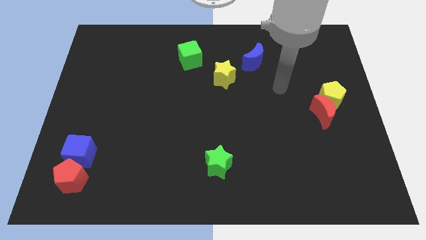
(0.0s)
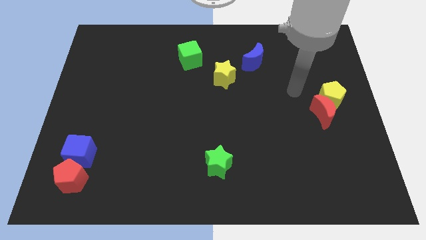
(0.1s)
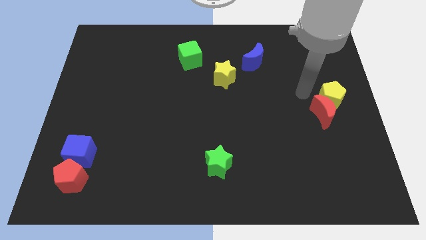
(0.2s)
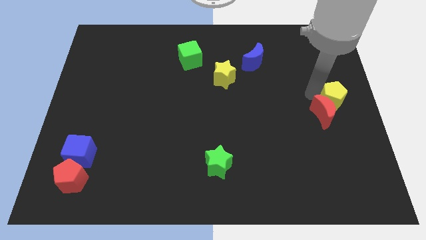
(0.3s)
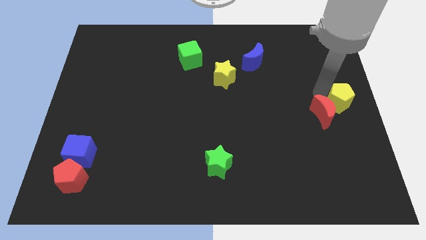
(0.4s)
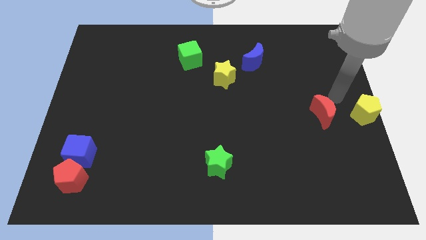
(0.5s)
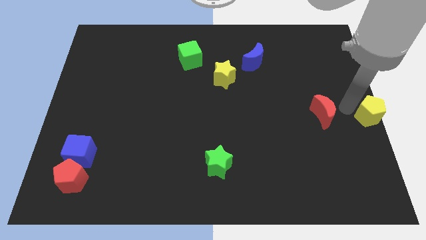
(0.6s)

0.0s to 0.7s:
pull the red moon apart from the yellow pentagon

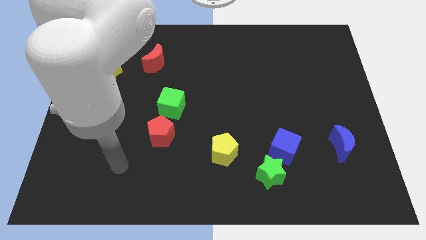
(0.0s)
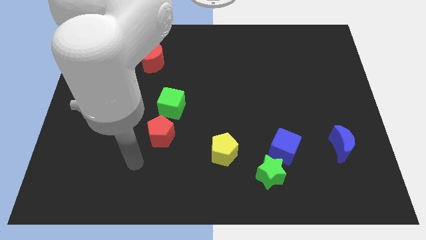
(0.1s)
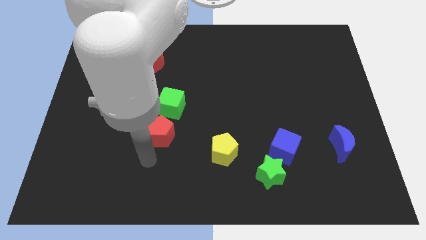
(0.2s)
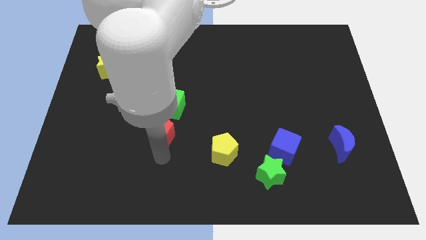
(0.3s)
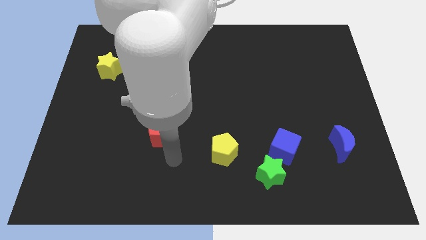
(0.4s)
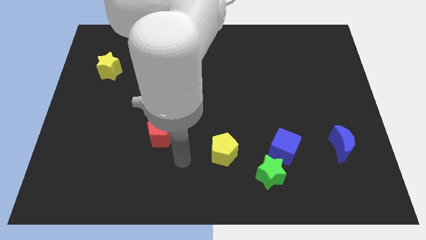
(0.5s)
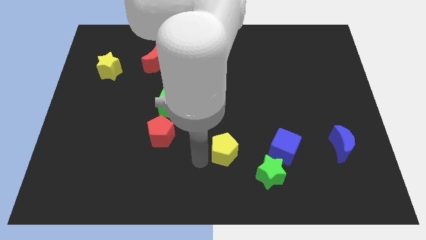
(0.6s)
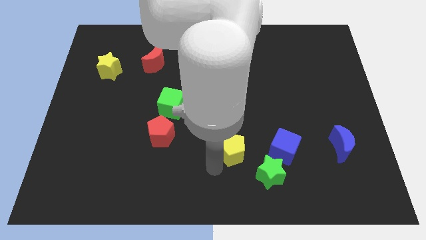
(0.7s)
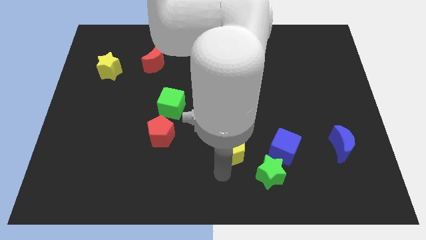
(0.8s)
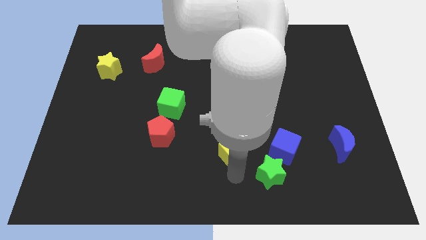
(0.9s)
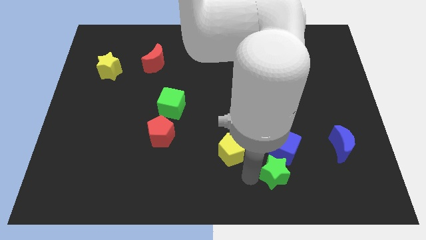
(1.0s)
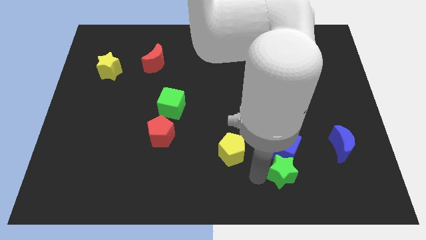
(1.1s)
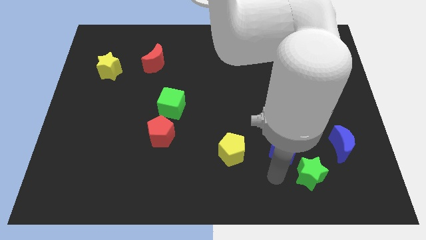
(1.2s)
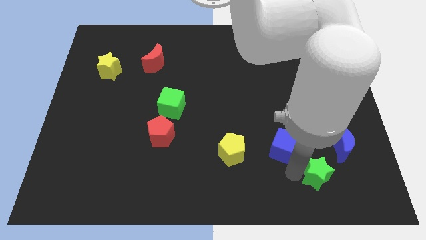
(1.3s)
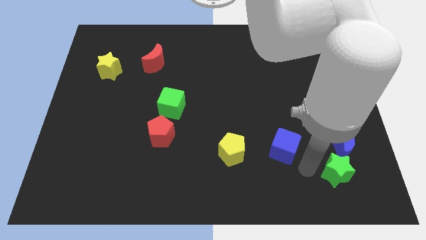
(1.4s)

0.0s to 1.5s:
move the blue cube away from the green star

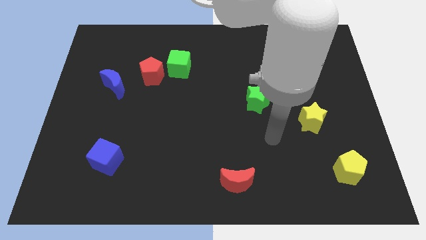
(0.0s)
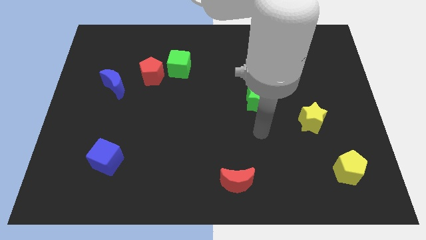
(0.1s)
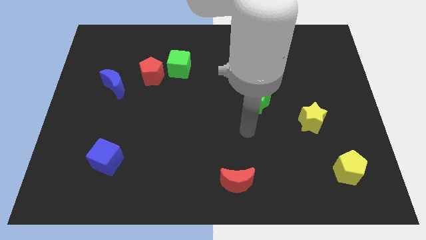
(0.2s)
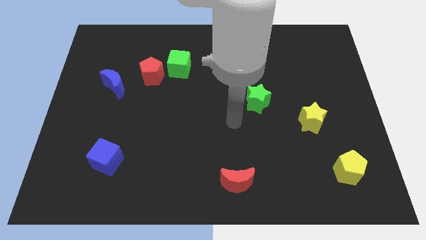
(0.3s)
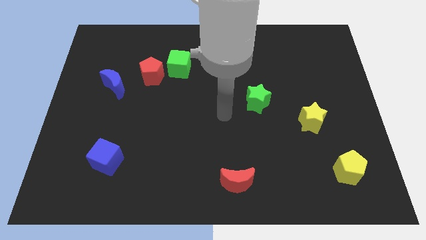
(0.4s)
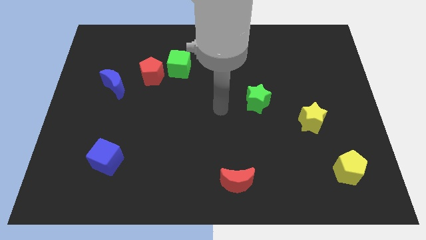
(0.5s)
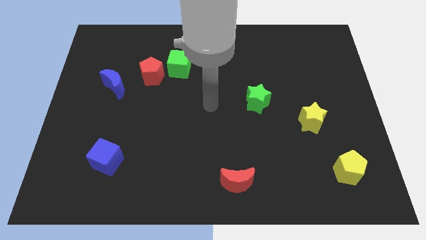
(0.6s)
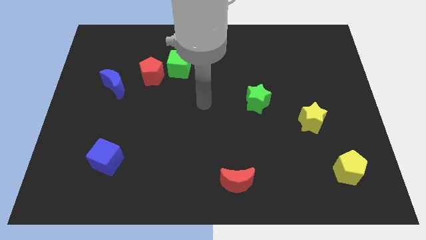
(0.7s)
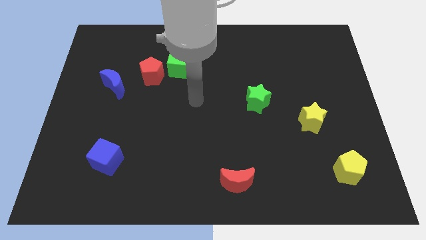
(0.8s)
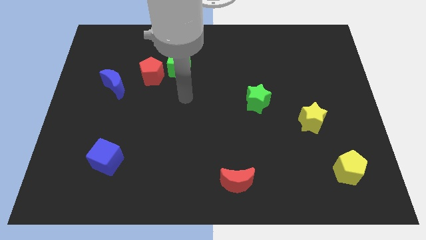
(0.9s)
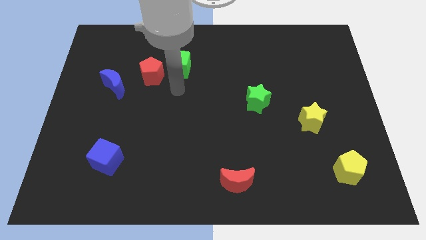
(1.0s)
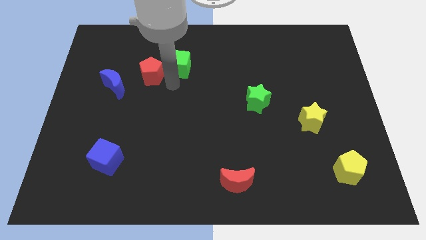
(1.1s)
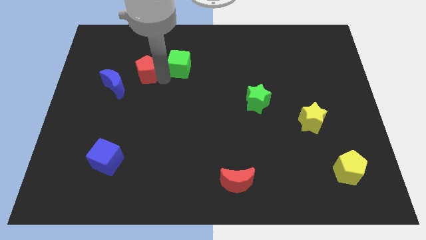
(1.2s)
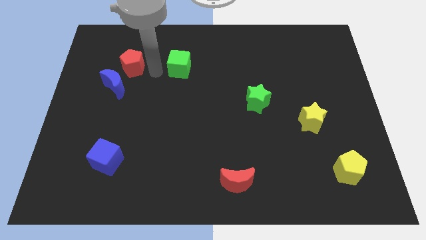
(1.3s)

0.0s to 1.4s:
pull the green cube apart from the red pentagon

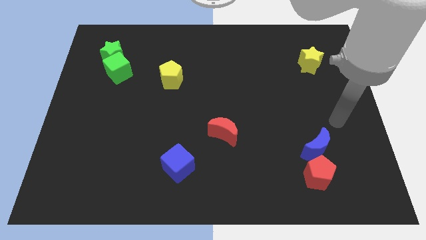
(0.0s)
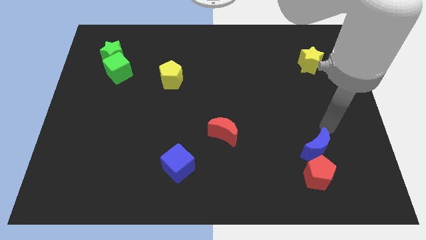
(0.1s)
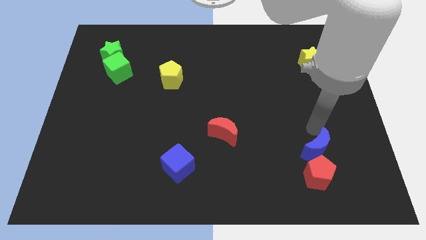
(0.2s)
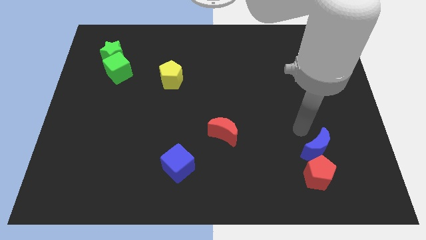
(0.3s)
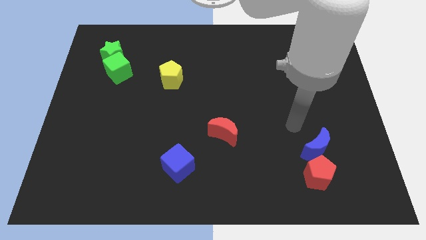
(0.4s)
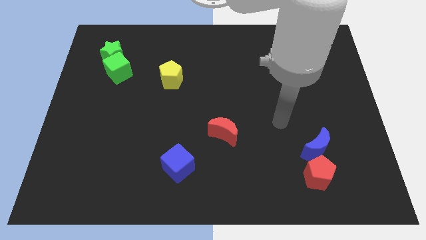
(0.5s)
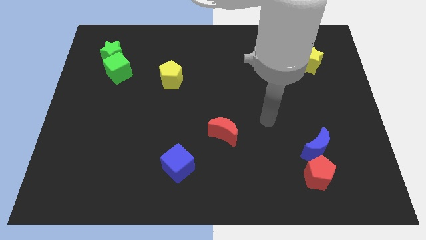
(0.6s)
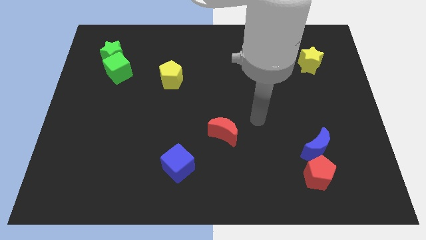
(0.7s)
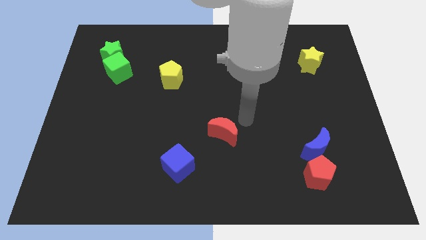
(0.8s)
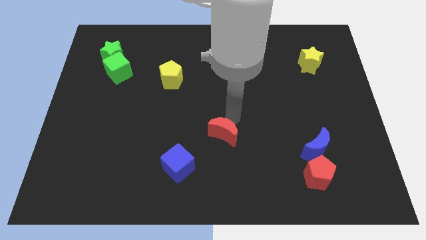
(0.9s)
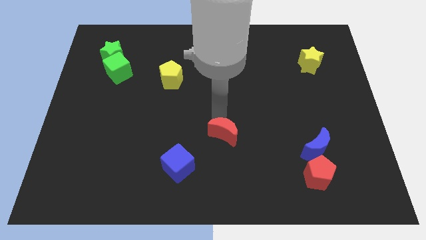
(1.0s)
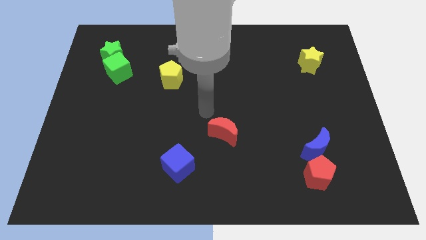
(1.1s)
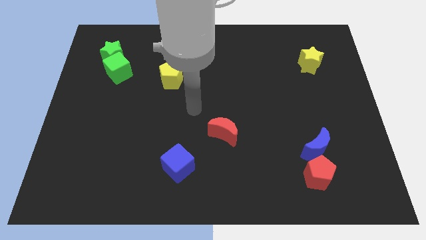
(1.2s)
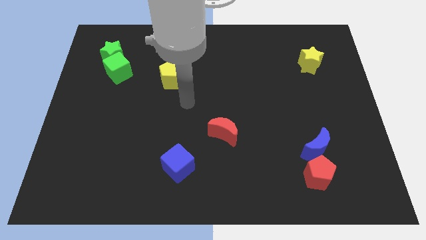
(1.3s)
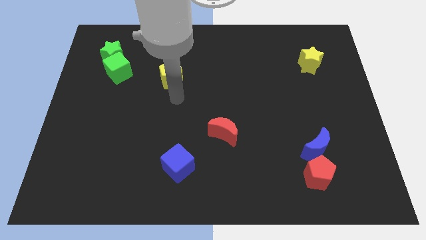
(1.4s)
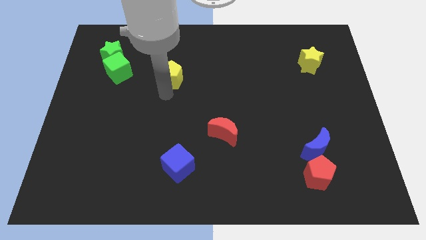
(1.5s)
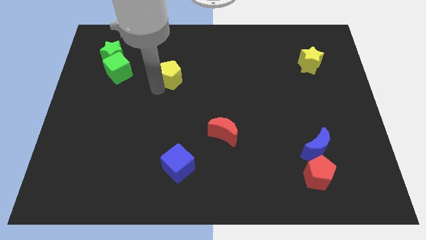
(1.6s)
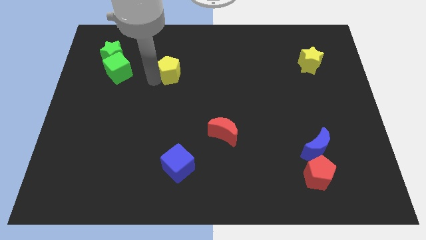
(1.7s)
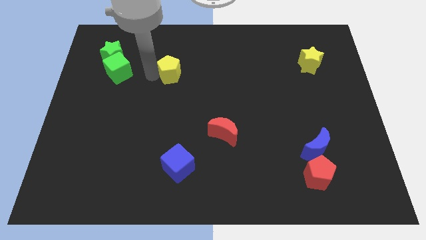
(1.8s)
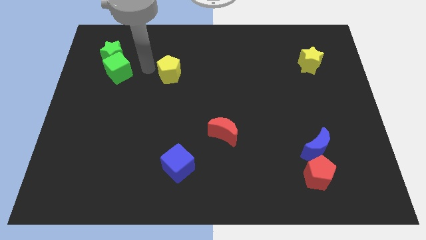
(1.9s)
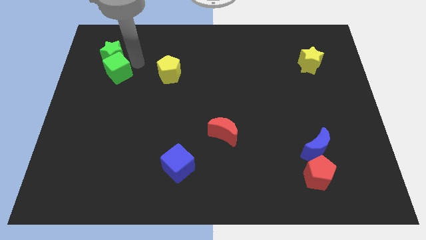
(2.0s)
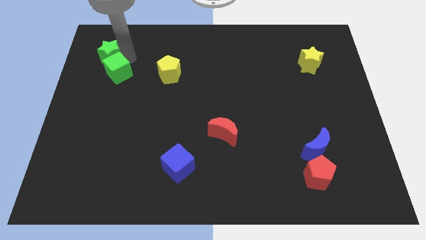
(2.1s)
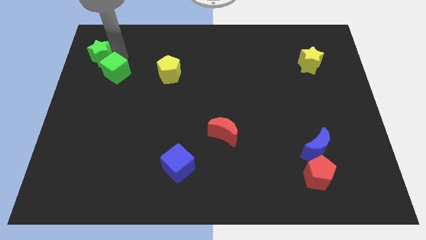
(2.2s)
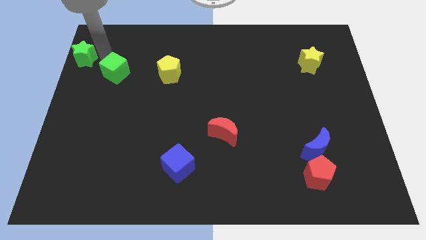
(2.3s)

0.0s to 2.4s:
separate the green cube from the green star

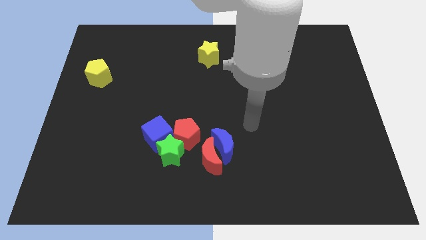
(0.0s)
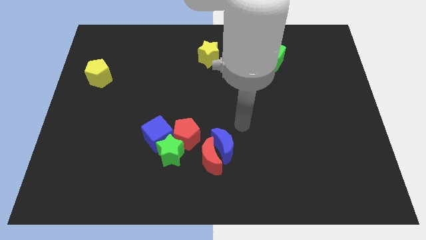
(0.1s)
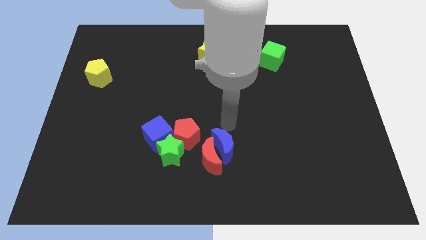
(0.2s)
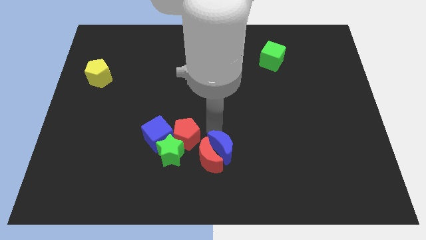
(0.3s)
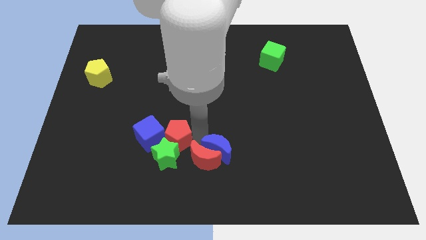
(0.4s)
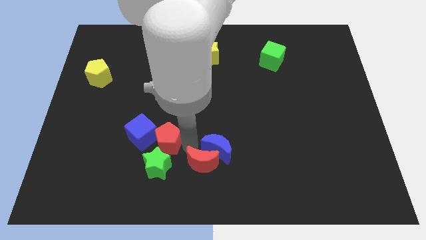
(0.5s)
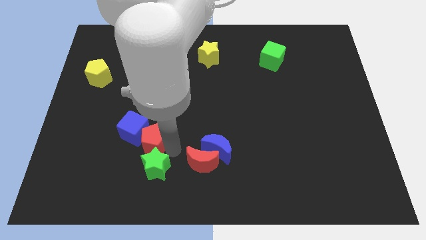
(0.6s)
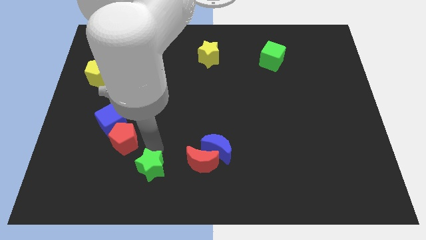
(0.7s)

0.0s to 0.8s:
separate the blue cube from the green star and red pentagon

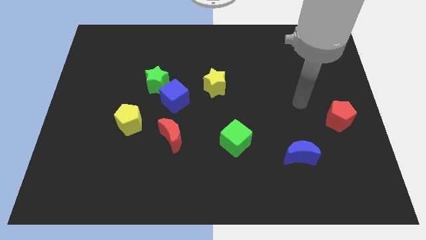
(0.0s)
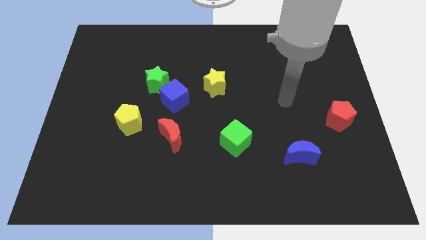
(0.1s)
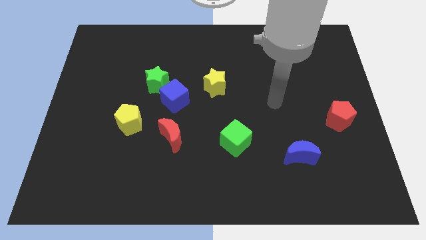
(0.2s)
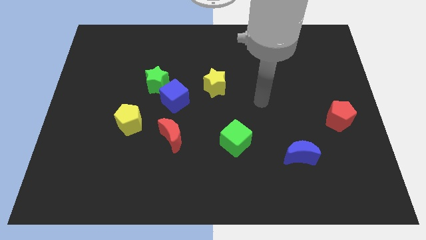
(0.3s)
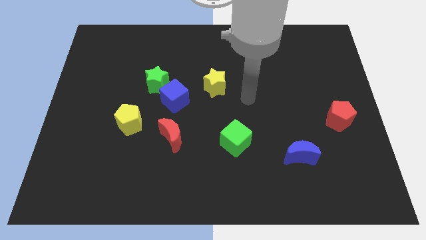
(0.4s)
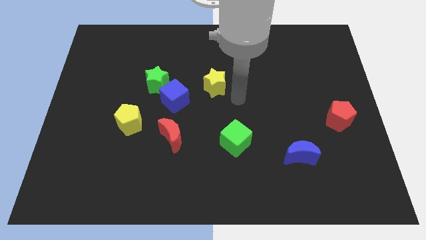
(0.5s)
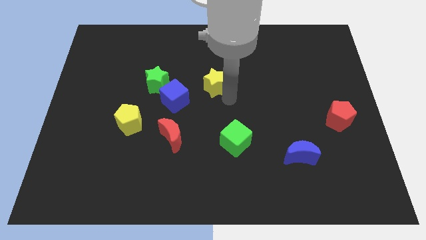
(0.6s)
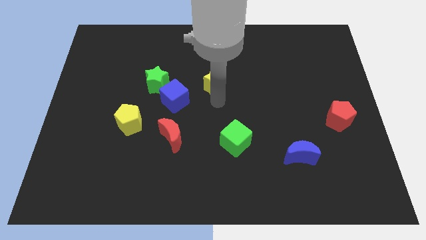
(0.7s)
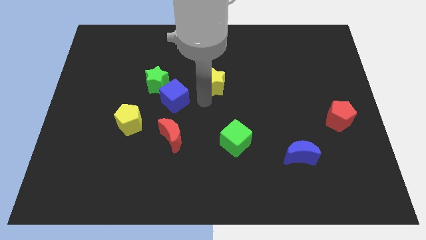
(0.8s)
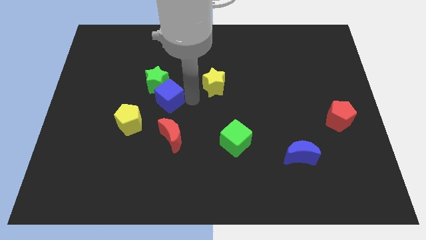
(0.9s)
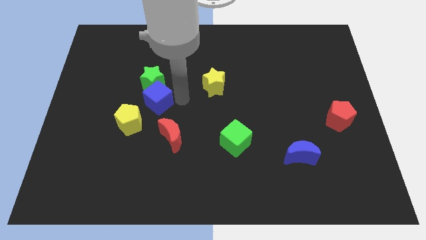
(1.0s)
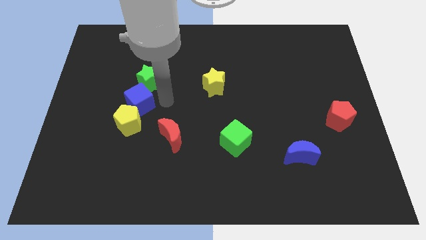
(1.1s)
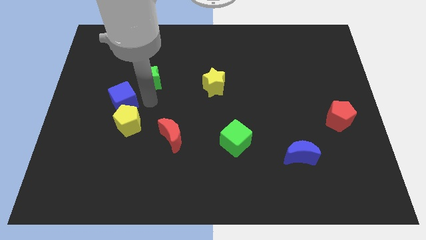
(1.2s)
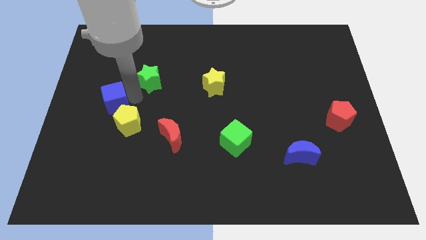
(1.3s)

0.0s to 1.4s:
move the green star away from the blue cube

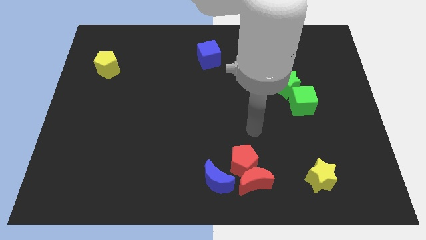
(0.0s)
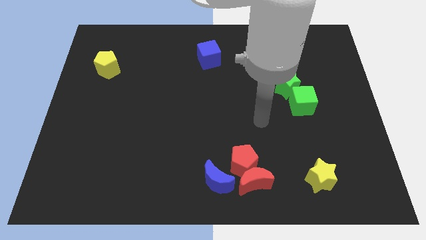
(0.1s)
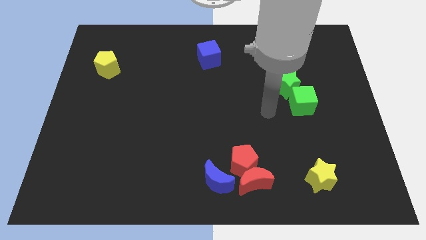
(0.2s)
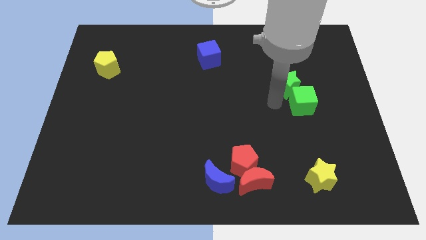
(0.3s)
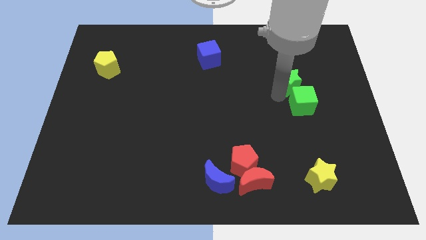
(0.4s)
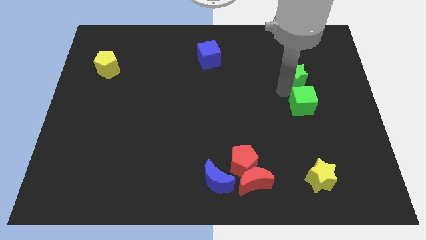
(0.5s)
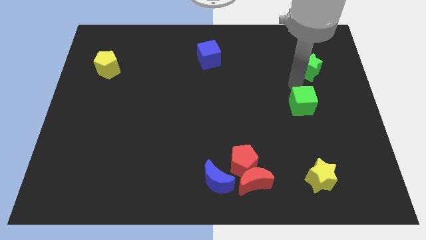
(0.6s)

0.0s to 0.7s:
pull the green cube apart from the green star

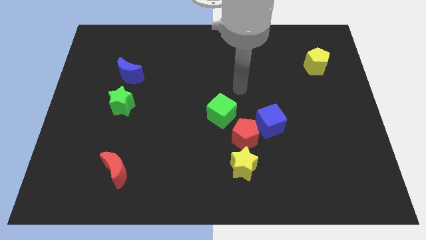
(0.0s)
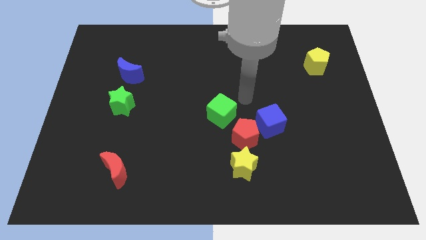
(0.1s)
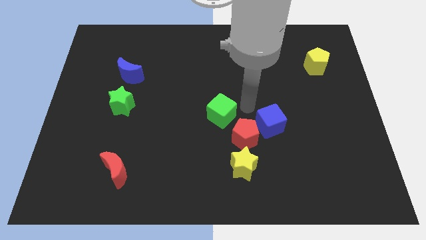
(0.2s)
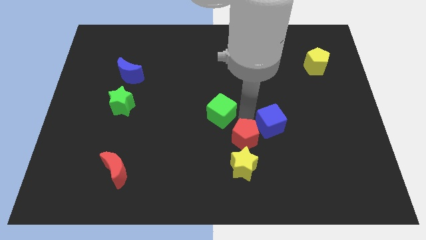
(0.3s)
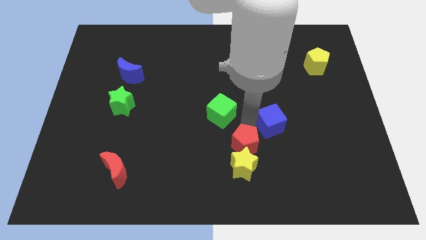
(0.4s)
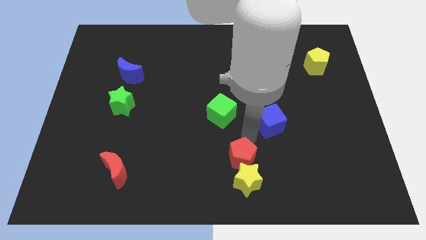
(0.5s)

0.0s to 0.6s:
move the blue cube away from the red pentagon
